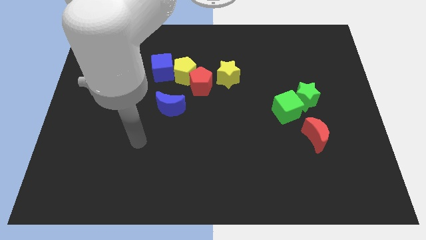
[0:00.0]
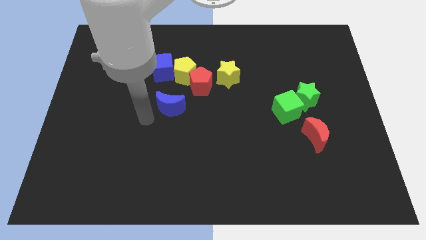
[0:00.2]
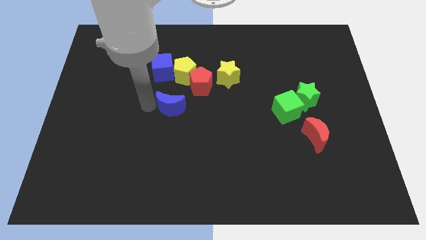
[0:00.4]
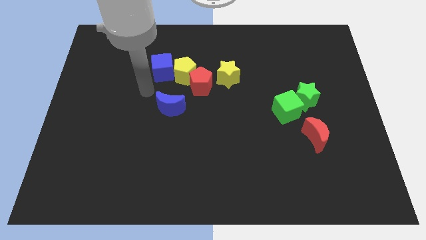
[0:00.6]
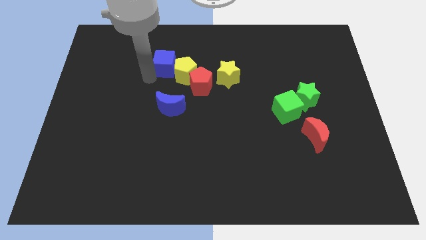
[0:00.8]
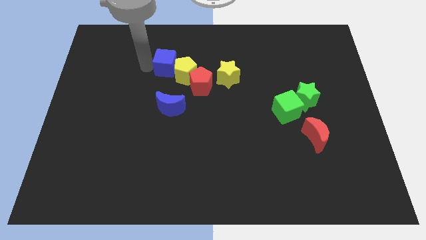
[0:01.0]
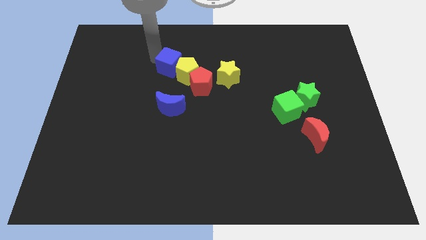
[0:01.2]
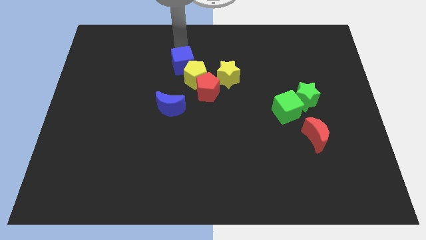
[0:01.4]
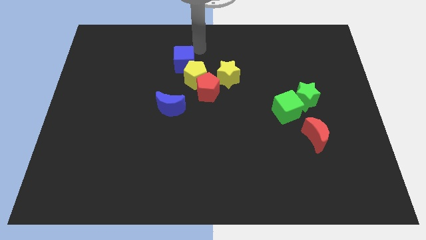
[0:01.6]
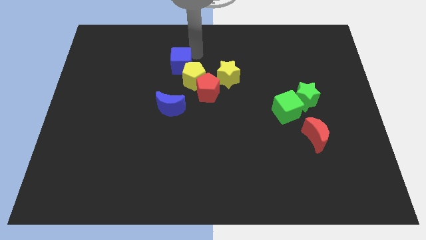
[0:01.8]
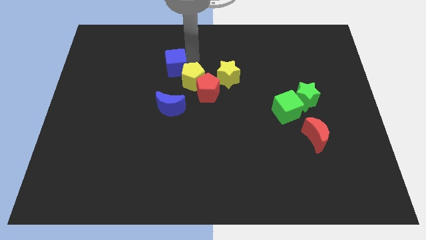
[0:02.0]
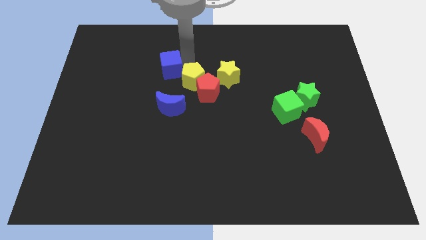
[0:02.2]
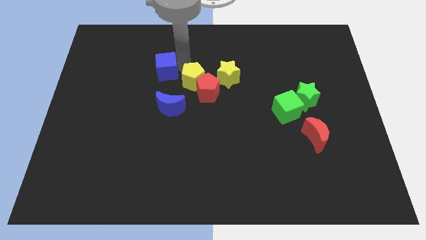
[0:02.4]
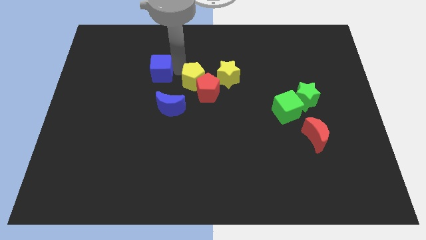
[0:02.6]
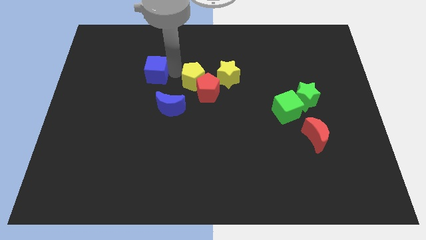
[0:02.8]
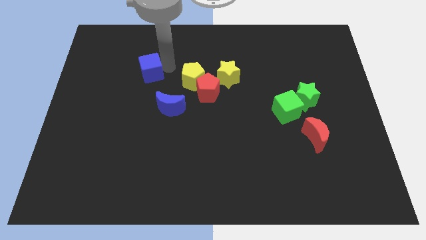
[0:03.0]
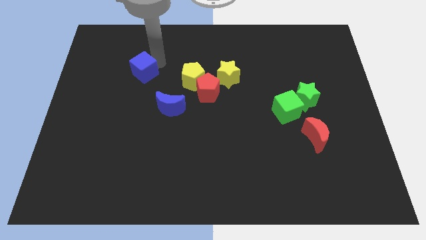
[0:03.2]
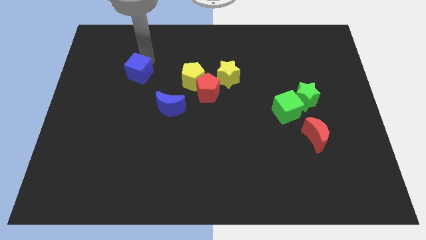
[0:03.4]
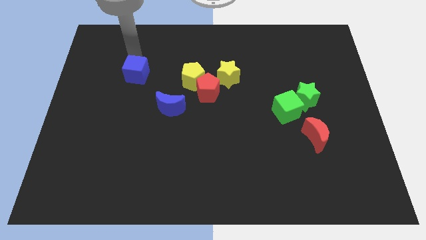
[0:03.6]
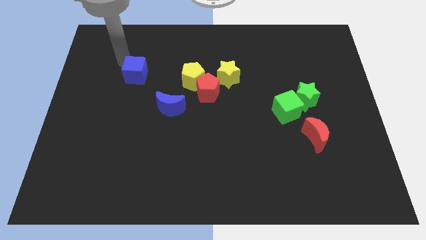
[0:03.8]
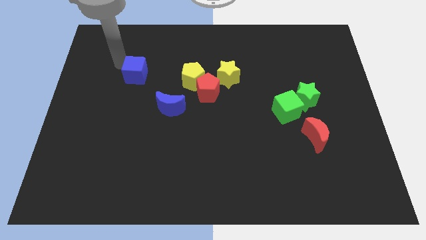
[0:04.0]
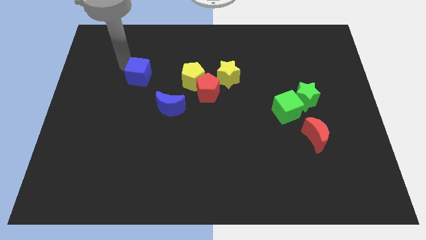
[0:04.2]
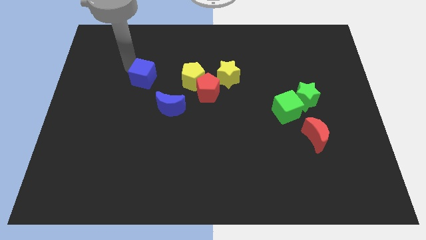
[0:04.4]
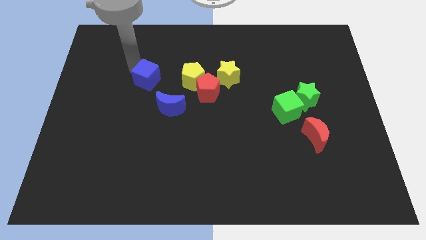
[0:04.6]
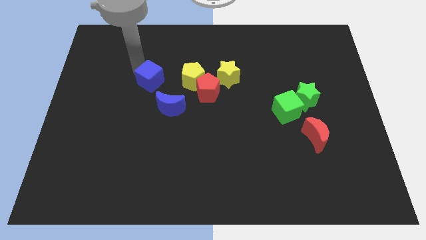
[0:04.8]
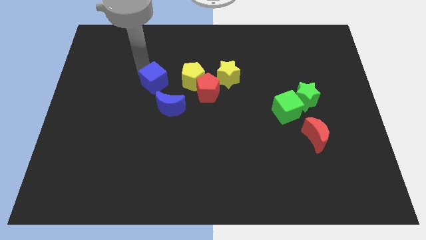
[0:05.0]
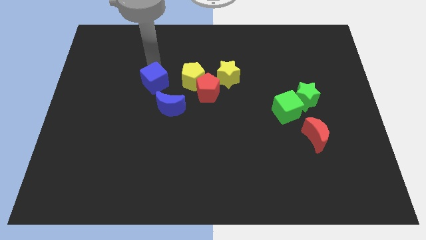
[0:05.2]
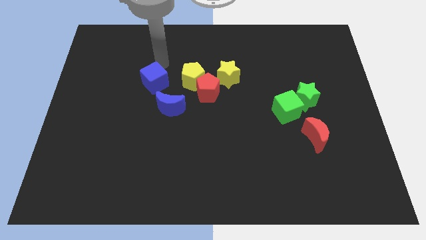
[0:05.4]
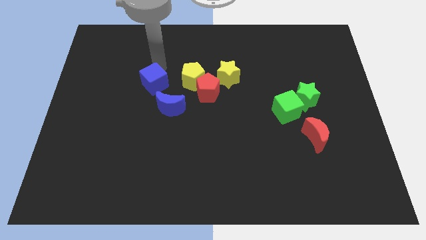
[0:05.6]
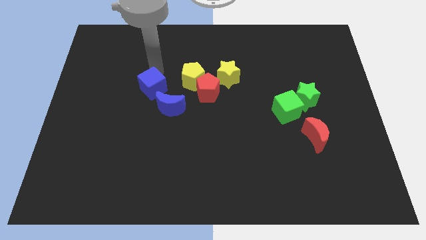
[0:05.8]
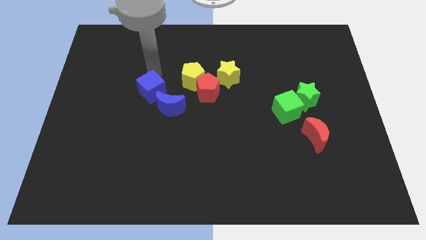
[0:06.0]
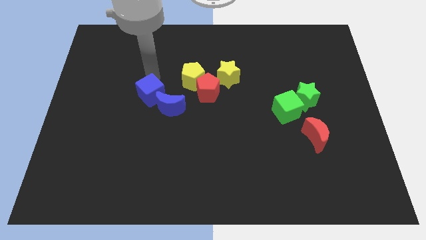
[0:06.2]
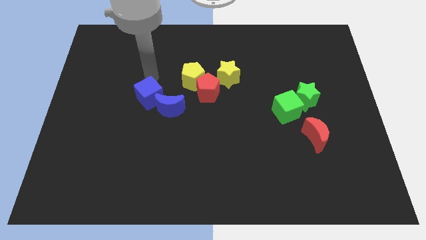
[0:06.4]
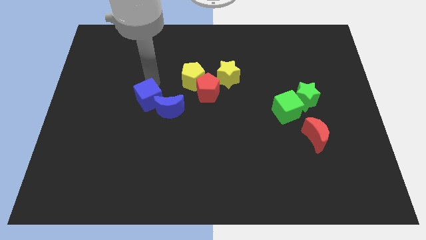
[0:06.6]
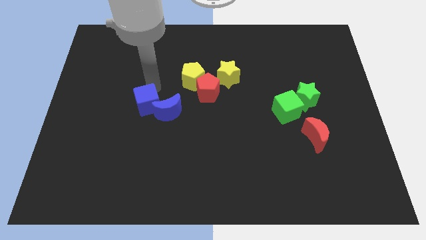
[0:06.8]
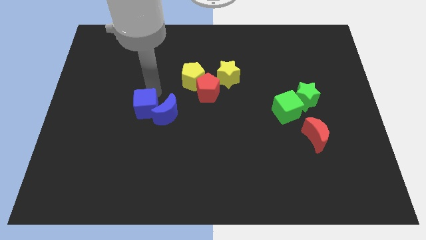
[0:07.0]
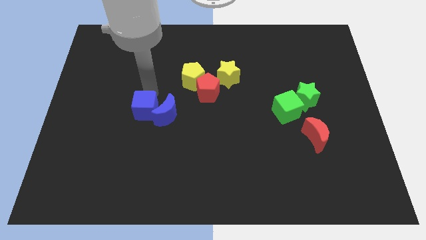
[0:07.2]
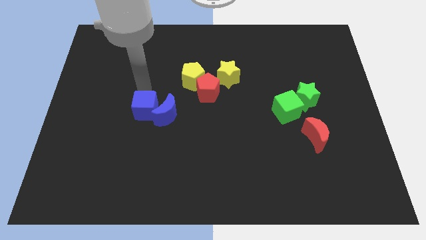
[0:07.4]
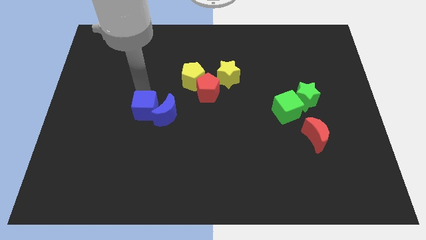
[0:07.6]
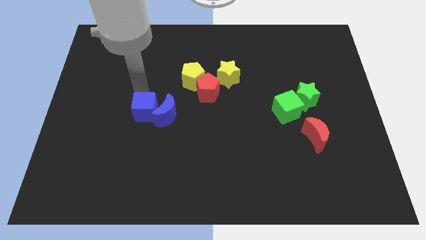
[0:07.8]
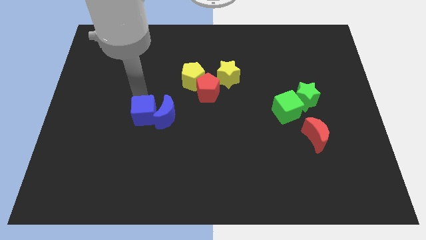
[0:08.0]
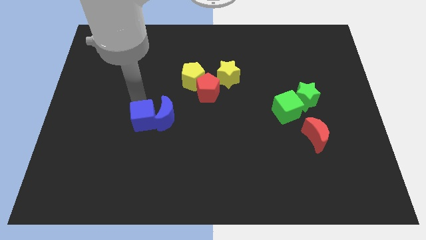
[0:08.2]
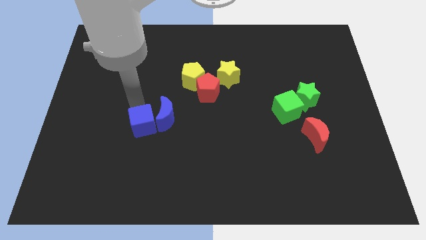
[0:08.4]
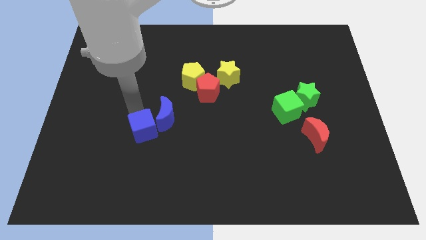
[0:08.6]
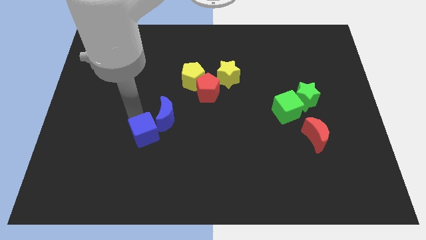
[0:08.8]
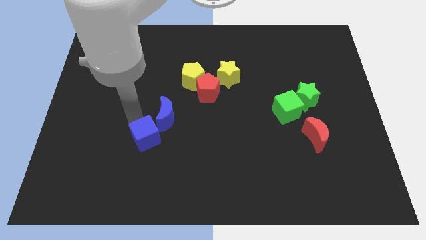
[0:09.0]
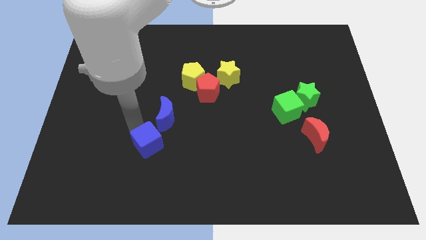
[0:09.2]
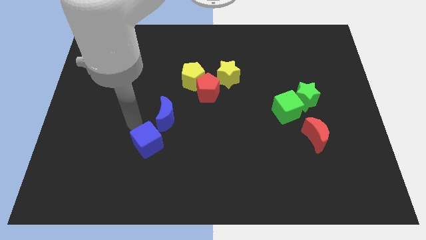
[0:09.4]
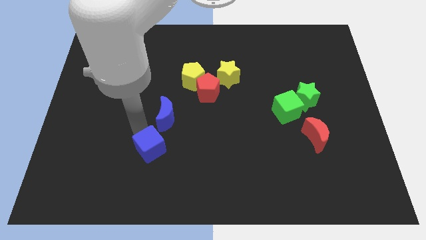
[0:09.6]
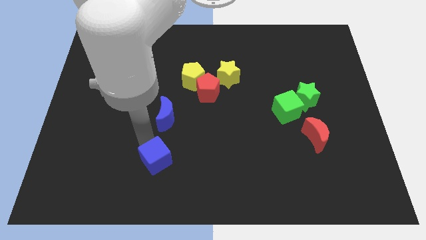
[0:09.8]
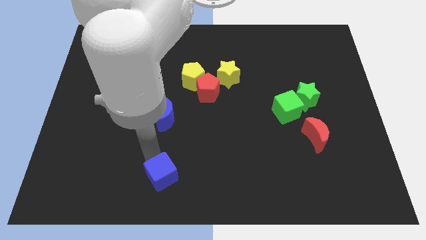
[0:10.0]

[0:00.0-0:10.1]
put the blue cube to the bottom side

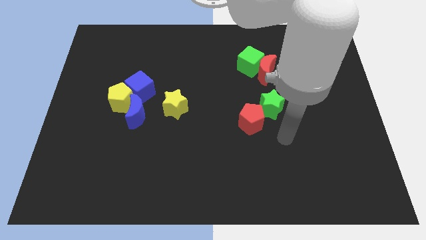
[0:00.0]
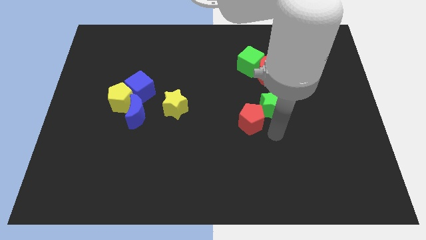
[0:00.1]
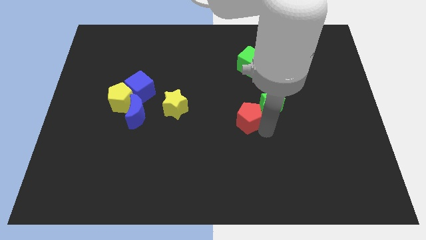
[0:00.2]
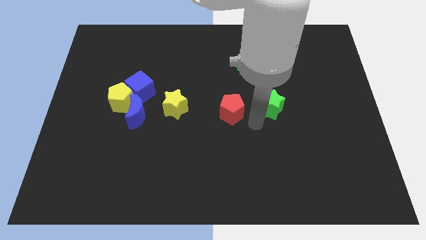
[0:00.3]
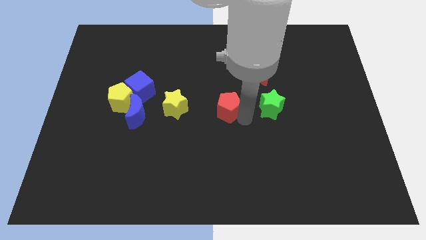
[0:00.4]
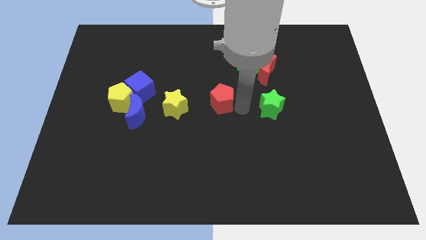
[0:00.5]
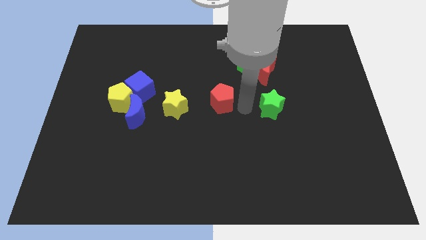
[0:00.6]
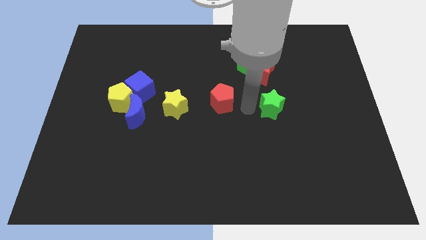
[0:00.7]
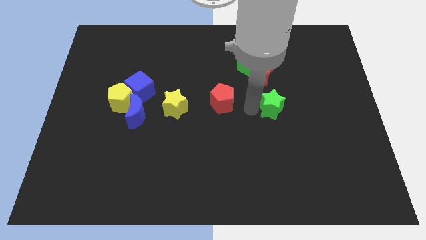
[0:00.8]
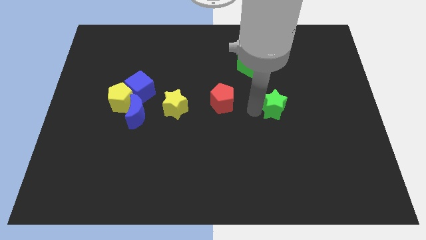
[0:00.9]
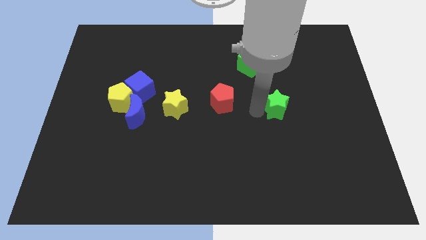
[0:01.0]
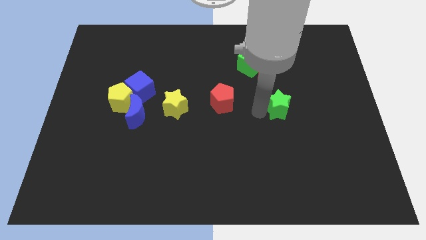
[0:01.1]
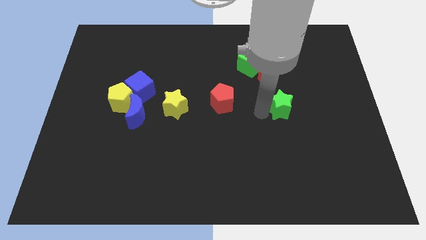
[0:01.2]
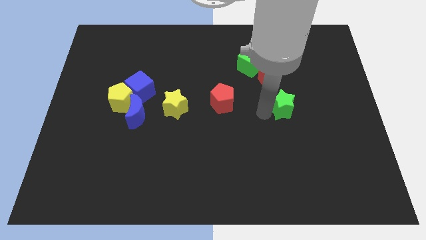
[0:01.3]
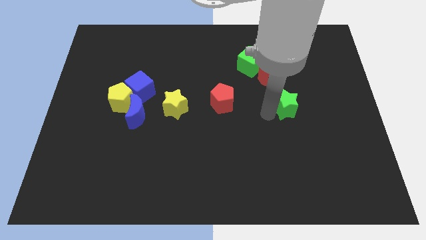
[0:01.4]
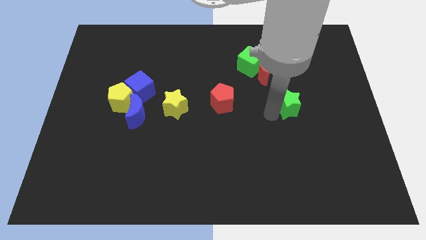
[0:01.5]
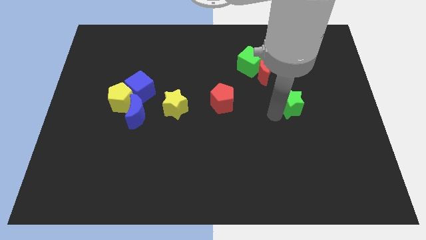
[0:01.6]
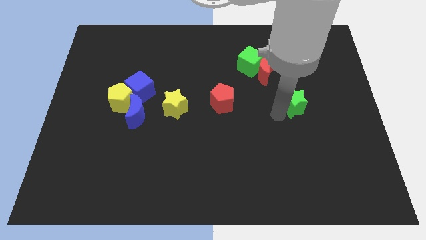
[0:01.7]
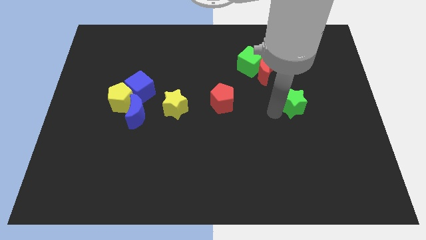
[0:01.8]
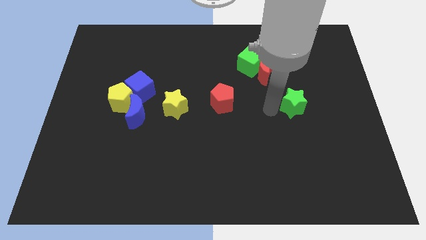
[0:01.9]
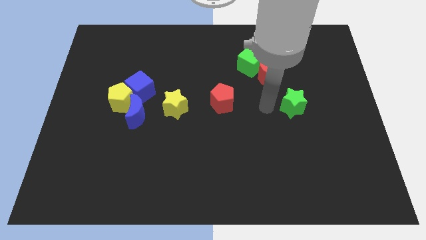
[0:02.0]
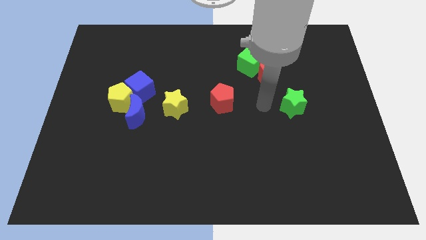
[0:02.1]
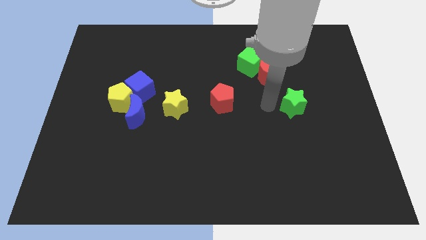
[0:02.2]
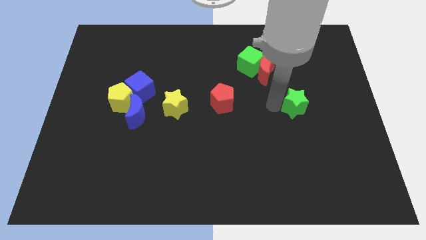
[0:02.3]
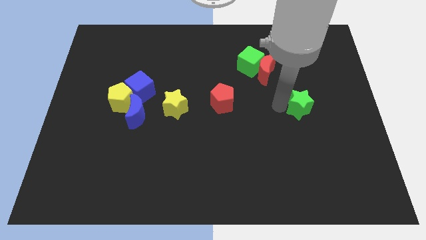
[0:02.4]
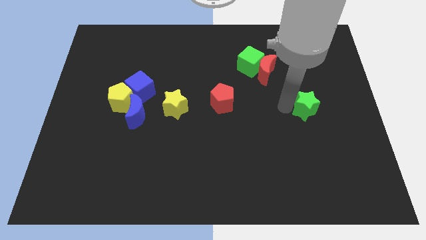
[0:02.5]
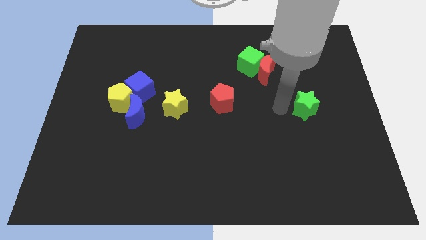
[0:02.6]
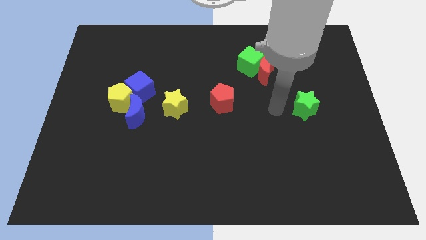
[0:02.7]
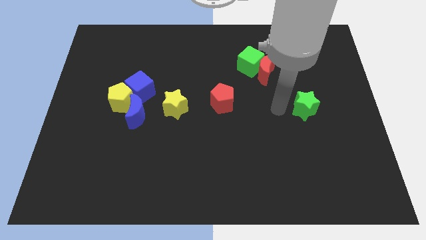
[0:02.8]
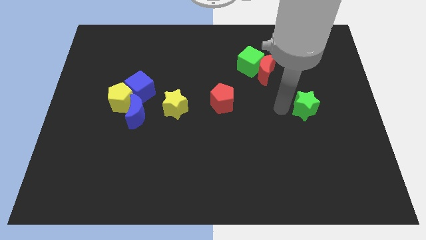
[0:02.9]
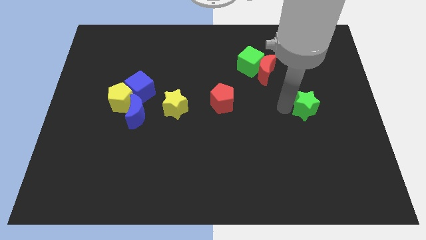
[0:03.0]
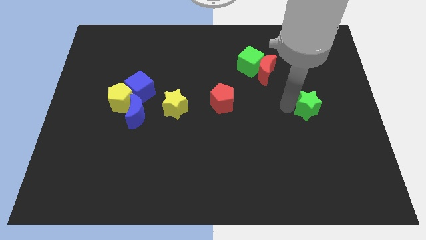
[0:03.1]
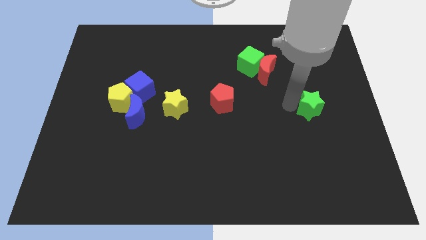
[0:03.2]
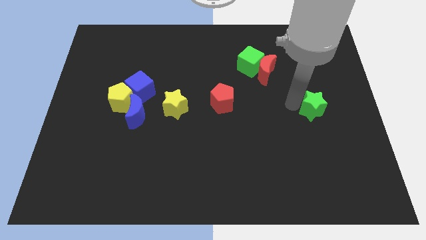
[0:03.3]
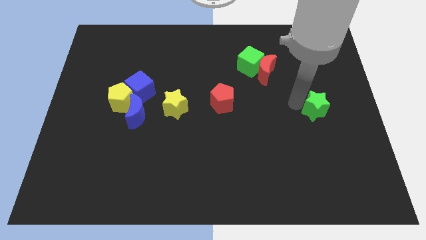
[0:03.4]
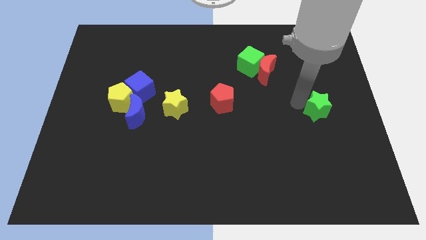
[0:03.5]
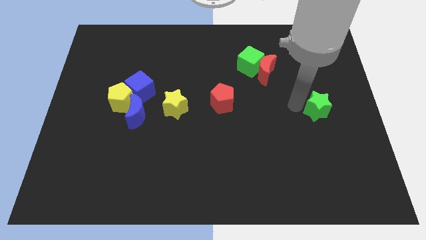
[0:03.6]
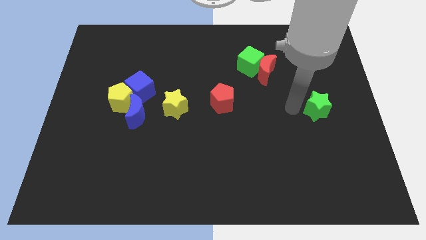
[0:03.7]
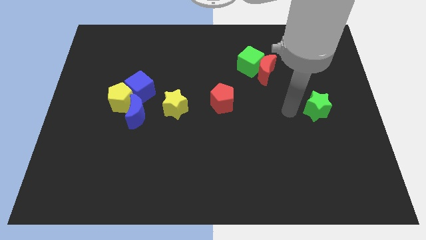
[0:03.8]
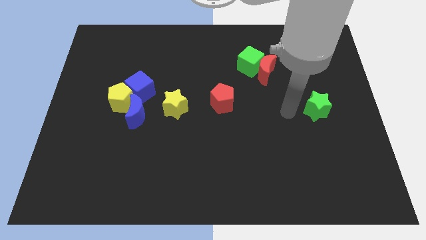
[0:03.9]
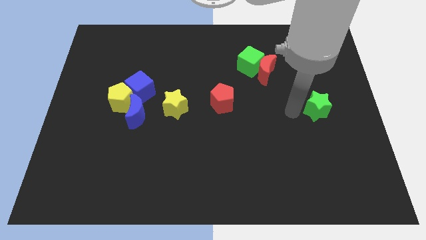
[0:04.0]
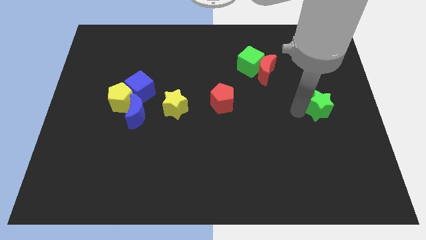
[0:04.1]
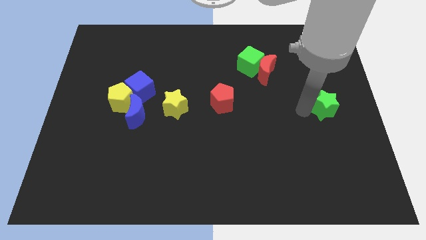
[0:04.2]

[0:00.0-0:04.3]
slide the green star to the right side of the board
